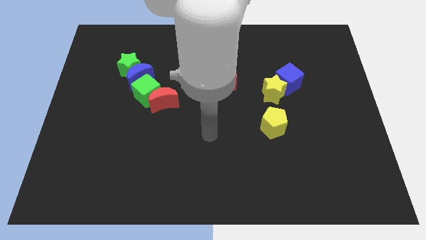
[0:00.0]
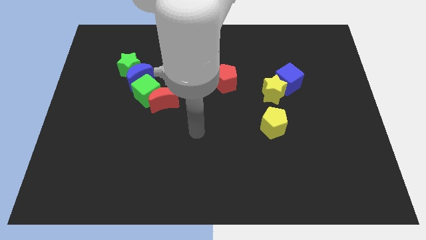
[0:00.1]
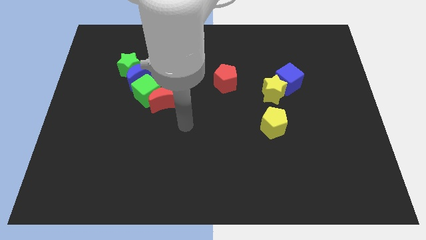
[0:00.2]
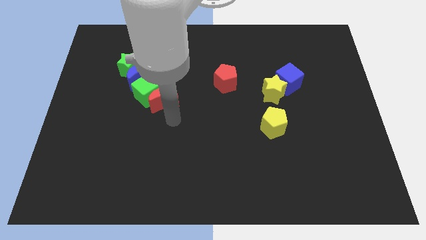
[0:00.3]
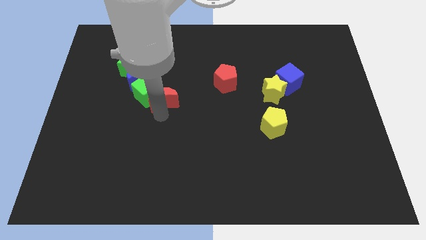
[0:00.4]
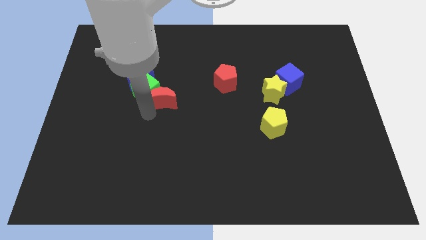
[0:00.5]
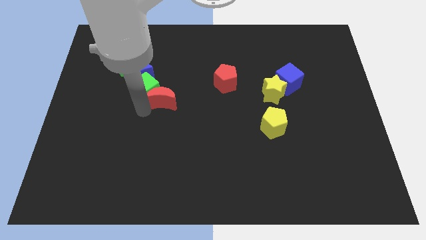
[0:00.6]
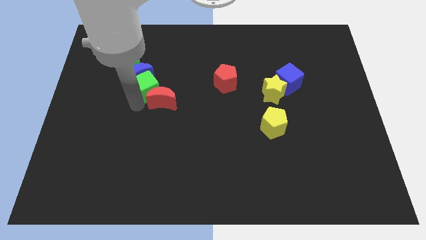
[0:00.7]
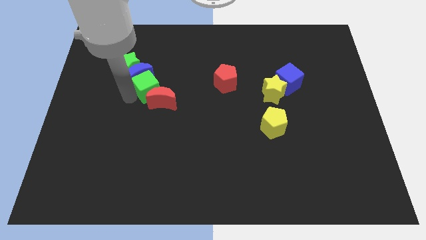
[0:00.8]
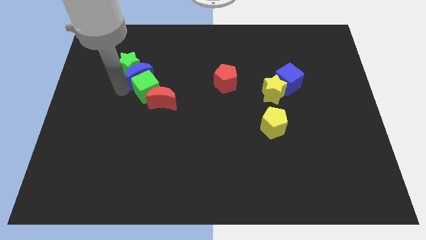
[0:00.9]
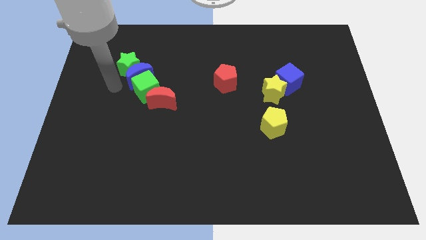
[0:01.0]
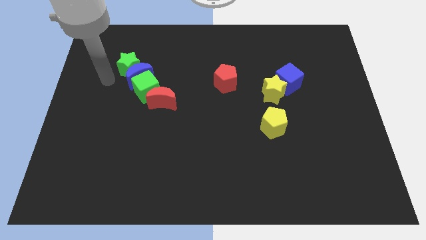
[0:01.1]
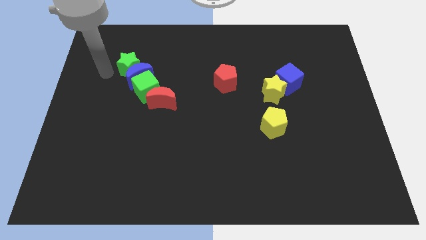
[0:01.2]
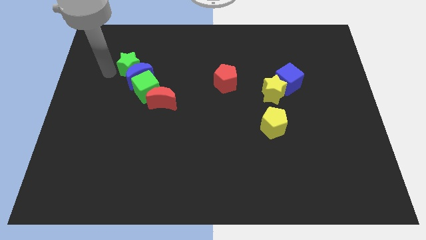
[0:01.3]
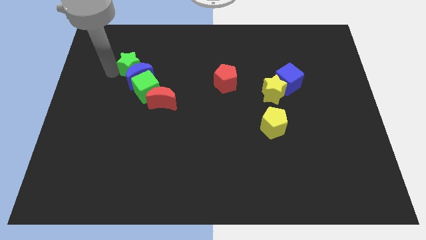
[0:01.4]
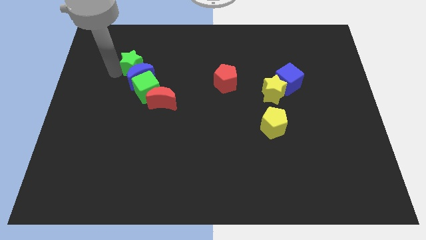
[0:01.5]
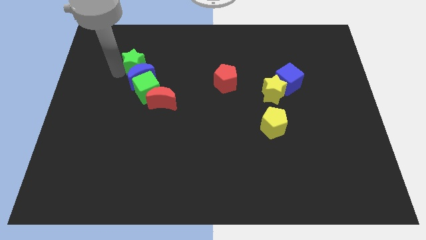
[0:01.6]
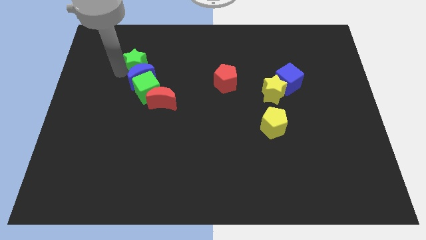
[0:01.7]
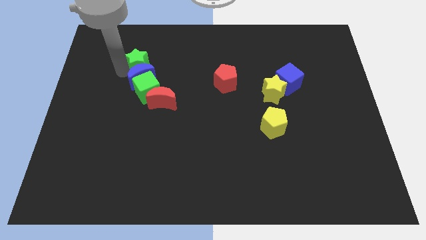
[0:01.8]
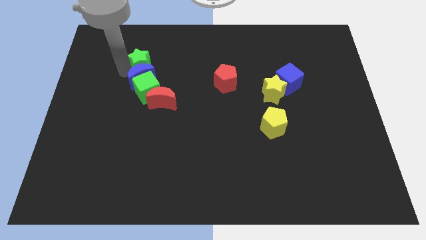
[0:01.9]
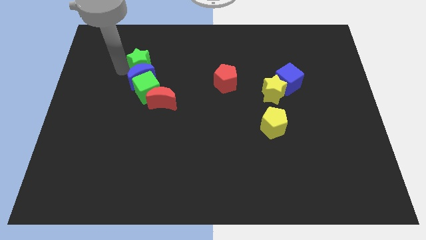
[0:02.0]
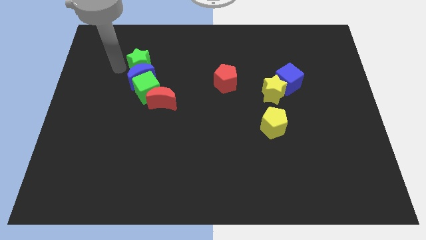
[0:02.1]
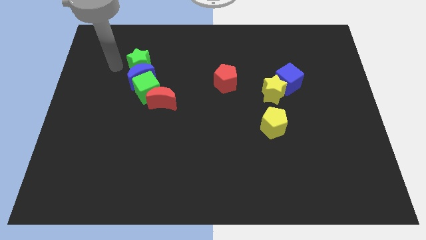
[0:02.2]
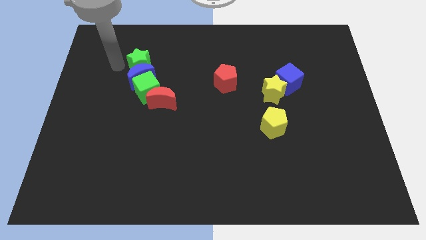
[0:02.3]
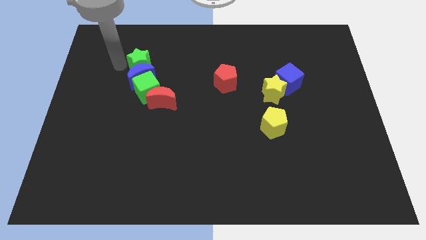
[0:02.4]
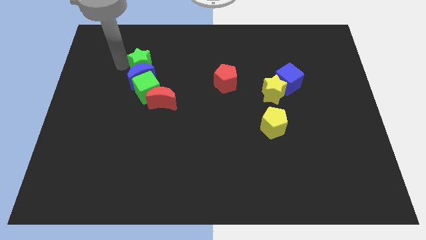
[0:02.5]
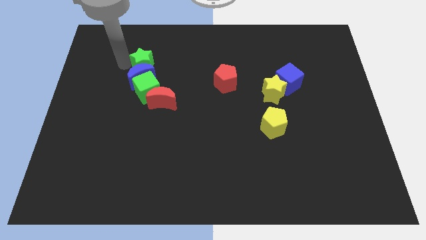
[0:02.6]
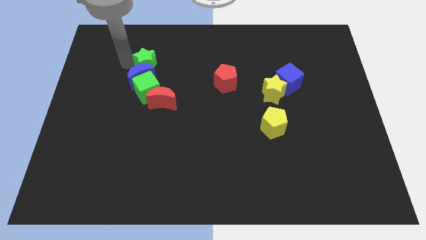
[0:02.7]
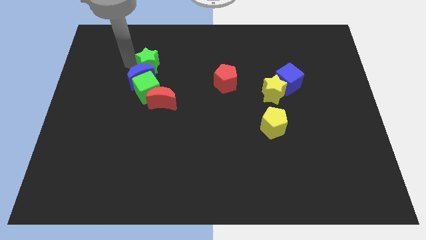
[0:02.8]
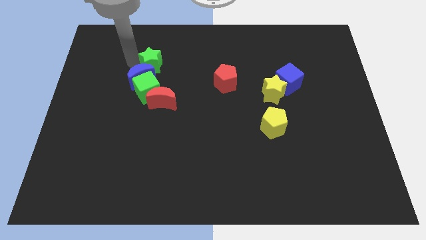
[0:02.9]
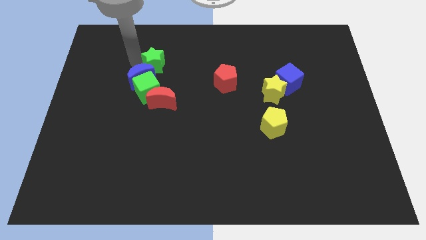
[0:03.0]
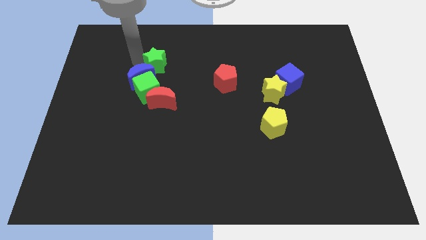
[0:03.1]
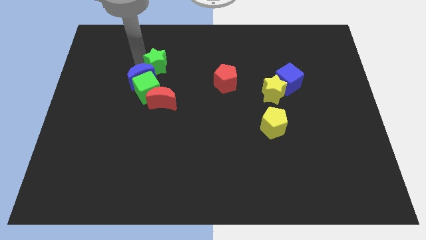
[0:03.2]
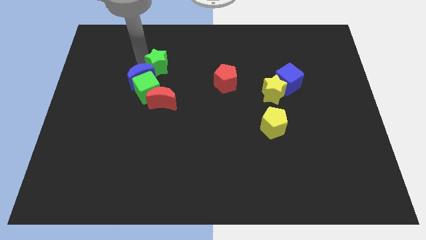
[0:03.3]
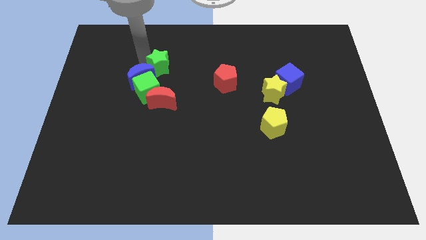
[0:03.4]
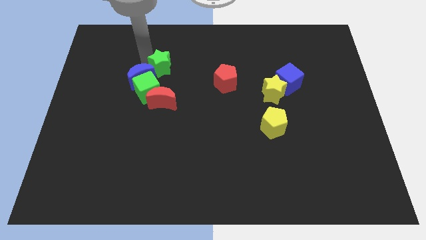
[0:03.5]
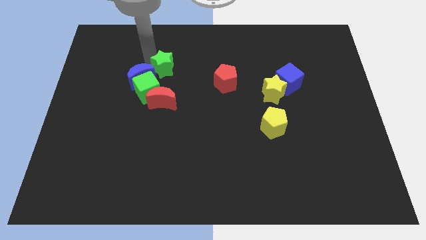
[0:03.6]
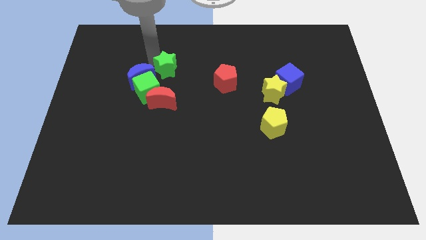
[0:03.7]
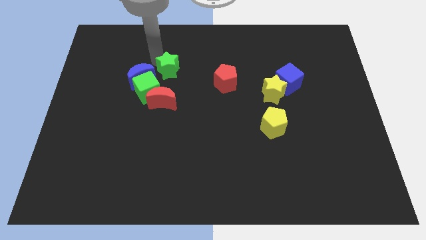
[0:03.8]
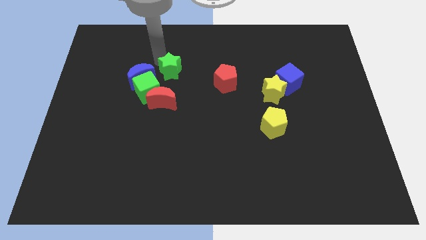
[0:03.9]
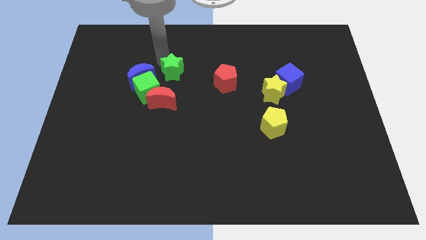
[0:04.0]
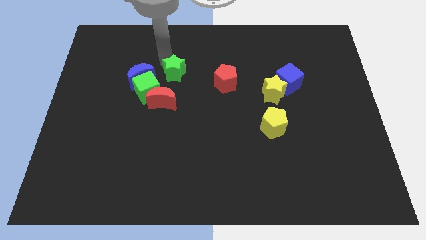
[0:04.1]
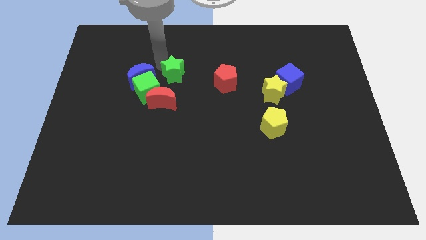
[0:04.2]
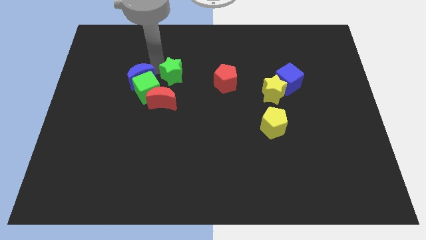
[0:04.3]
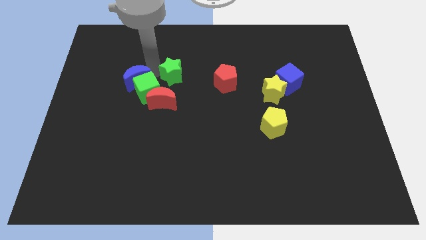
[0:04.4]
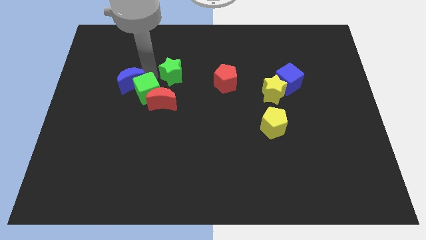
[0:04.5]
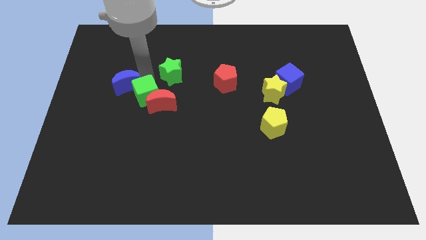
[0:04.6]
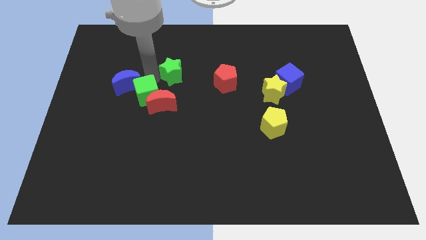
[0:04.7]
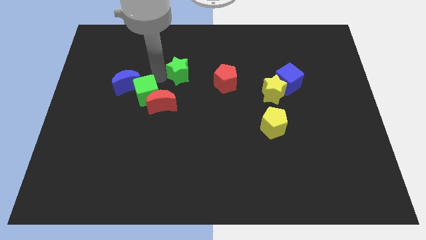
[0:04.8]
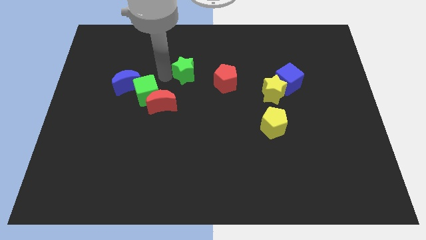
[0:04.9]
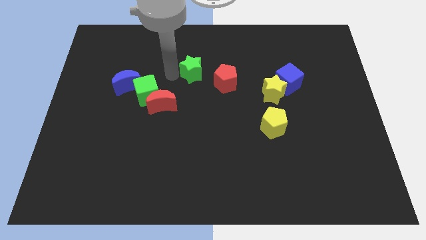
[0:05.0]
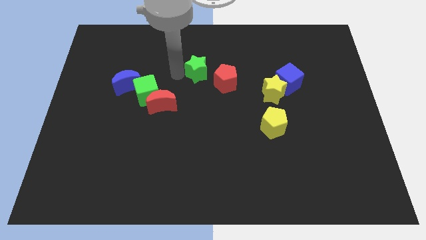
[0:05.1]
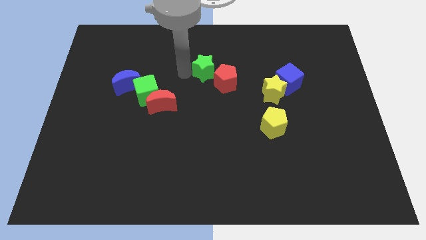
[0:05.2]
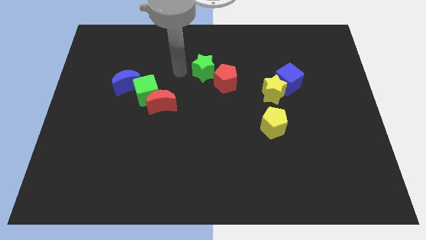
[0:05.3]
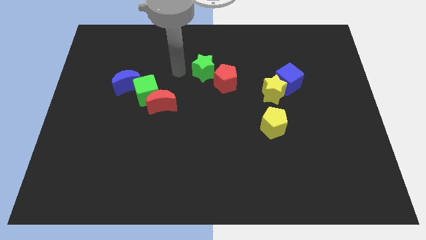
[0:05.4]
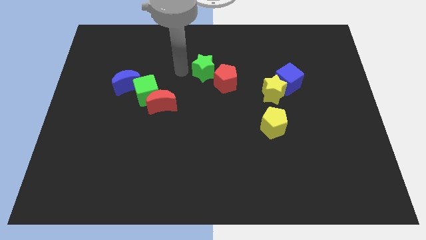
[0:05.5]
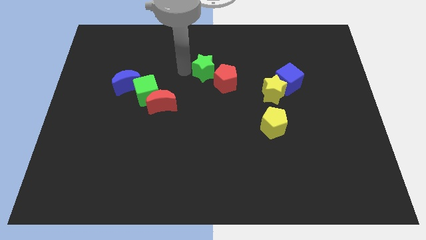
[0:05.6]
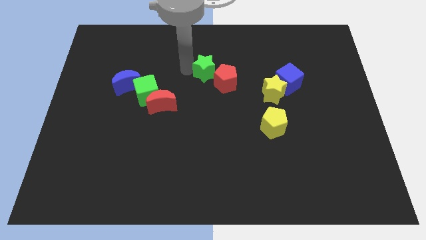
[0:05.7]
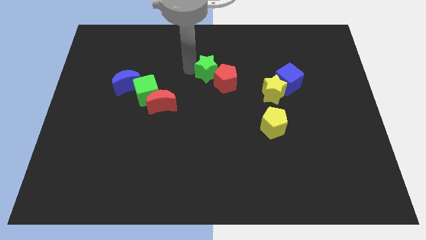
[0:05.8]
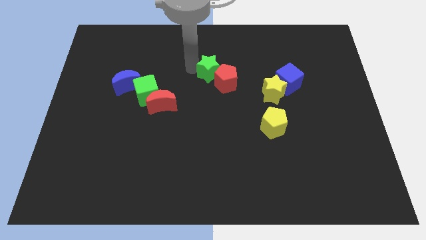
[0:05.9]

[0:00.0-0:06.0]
push the green star to the right

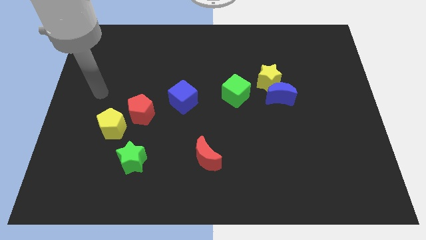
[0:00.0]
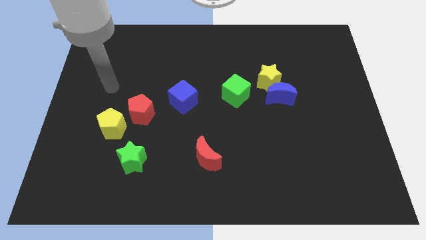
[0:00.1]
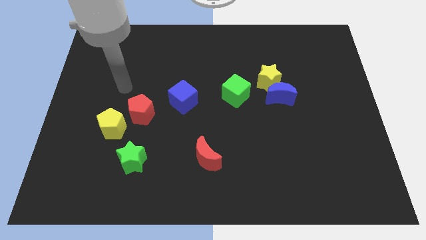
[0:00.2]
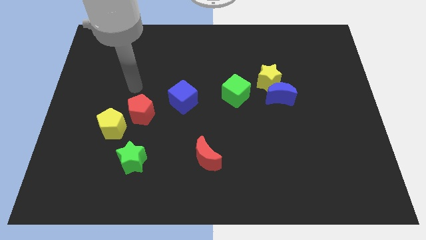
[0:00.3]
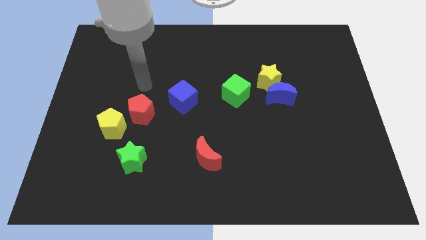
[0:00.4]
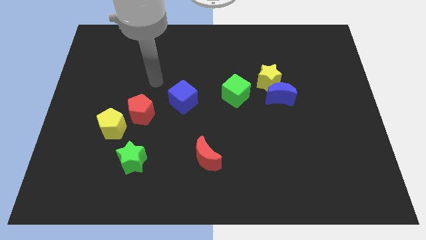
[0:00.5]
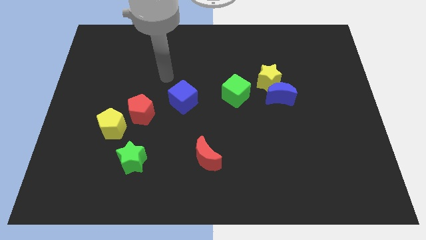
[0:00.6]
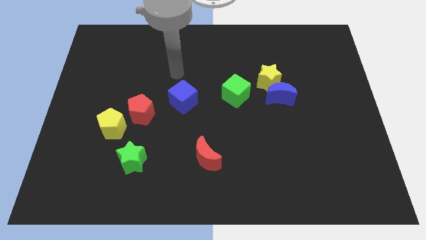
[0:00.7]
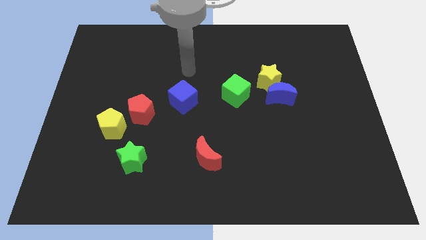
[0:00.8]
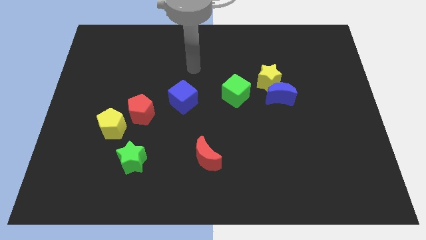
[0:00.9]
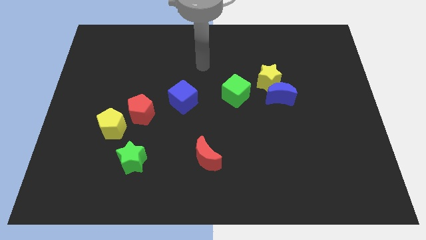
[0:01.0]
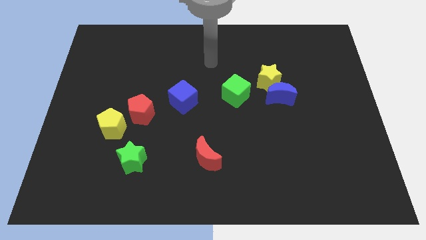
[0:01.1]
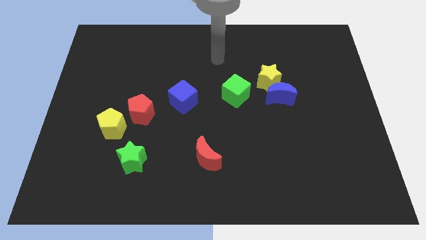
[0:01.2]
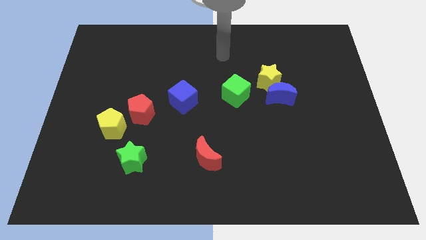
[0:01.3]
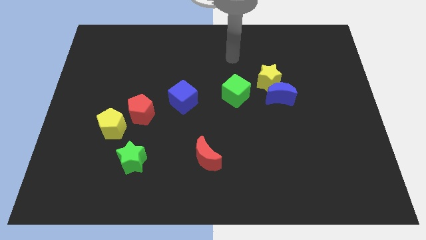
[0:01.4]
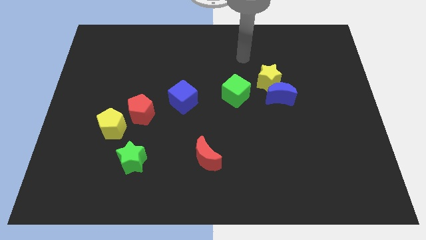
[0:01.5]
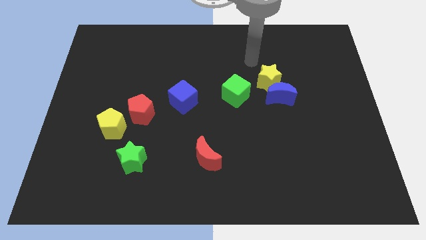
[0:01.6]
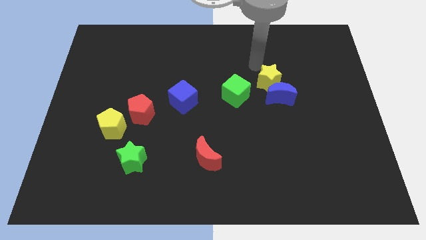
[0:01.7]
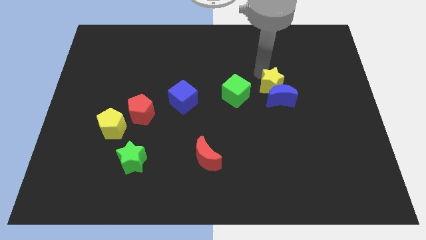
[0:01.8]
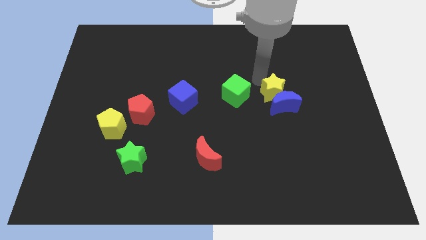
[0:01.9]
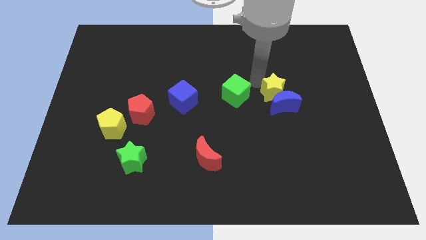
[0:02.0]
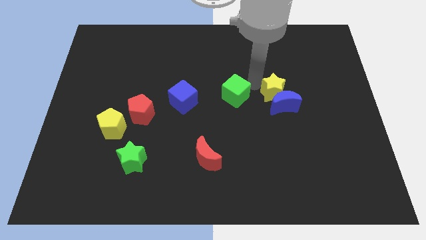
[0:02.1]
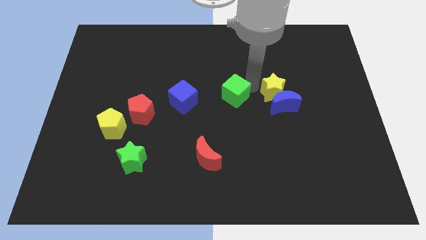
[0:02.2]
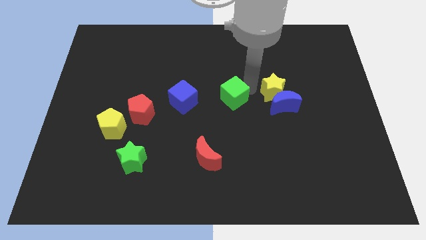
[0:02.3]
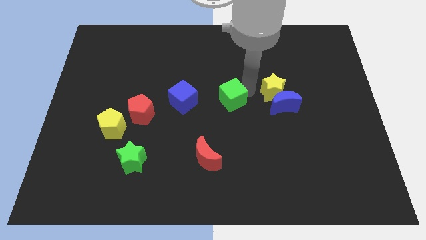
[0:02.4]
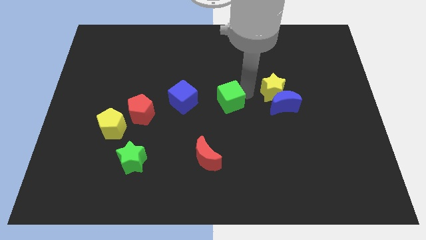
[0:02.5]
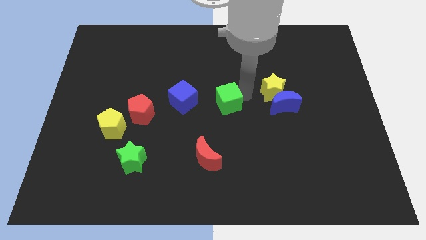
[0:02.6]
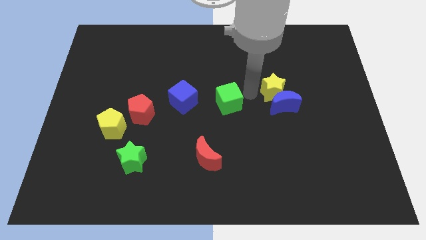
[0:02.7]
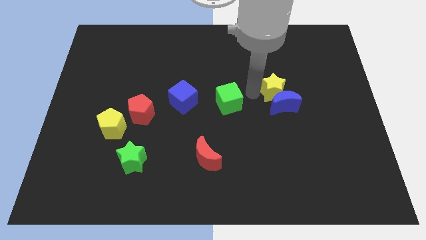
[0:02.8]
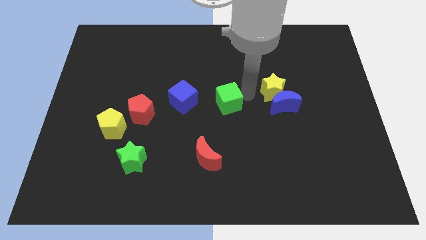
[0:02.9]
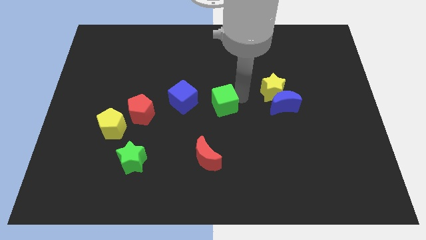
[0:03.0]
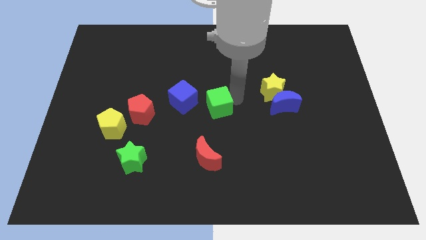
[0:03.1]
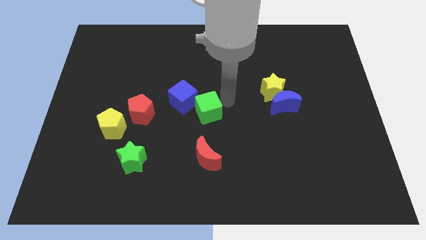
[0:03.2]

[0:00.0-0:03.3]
slide the green cube down and left somewhat
